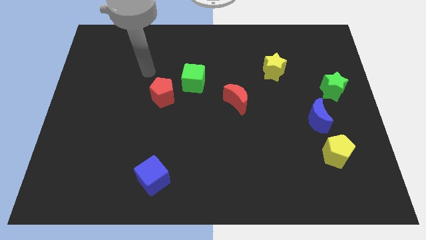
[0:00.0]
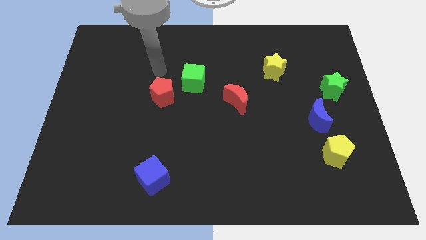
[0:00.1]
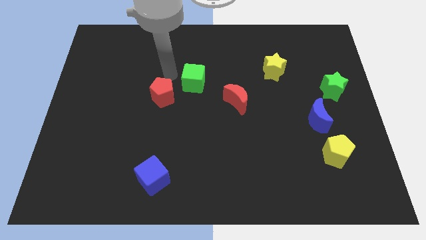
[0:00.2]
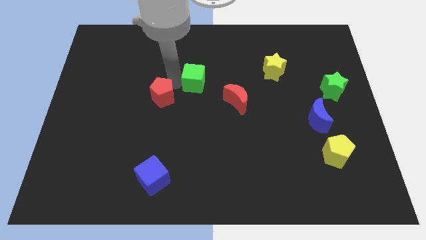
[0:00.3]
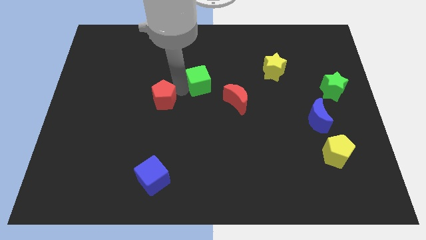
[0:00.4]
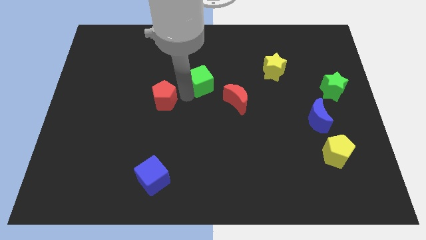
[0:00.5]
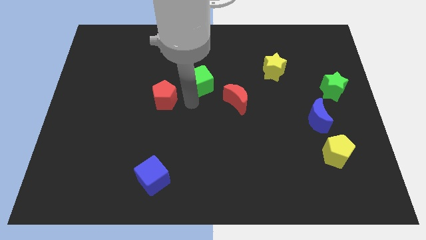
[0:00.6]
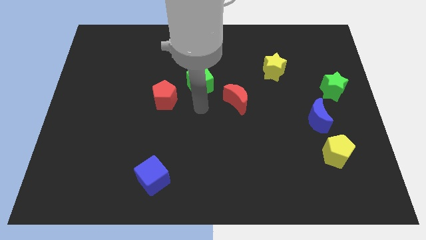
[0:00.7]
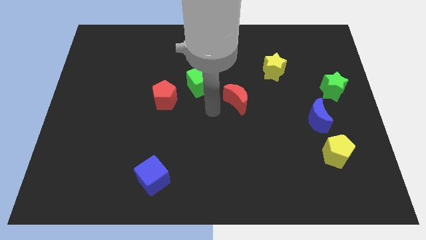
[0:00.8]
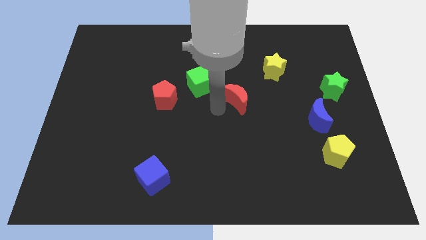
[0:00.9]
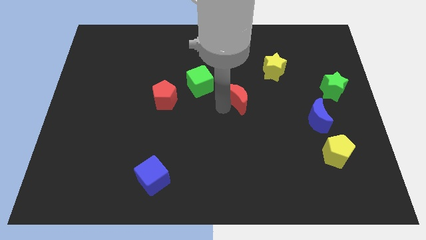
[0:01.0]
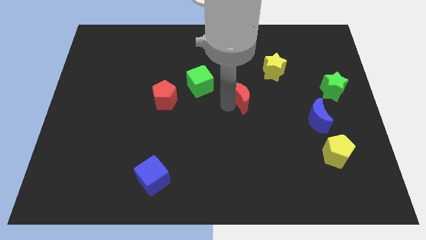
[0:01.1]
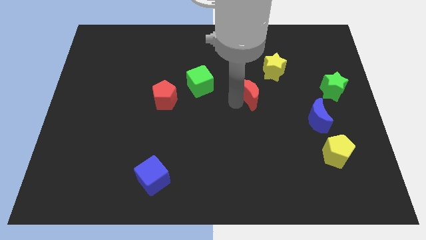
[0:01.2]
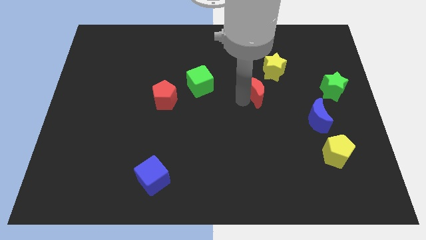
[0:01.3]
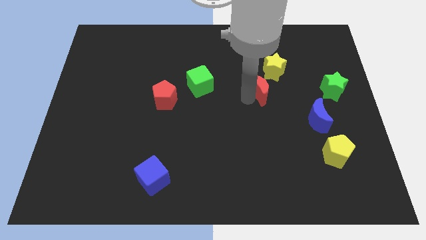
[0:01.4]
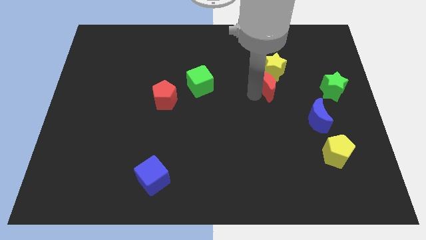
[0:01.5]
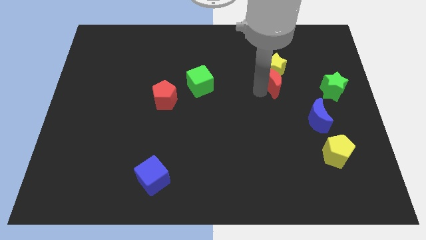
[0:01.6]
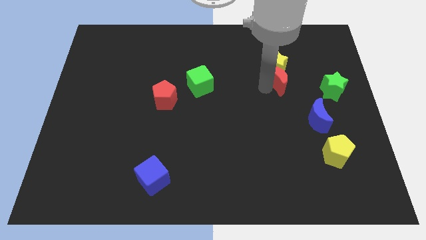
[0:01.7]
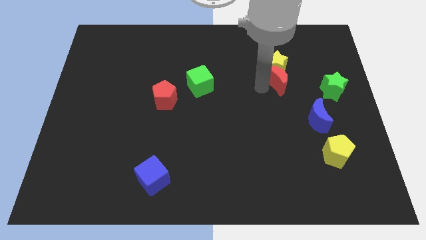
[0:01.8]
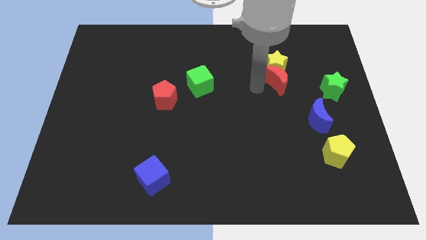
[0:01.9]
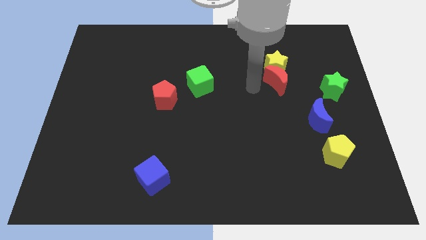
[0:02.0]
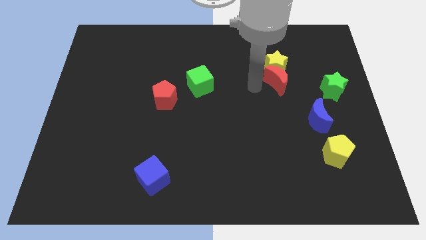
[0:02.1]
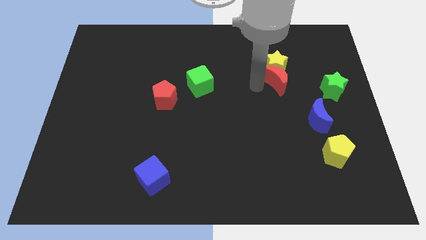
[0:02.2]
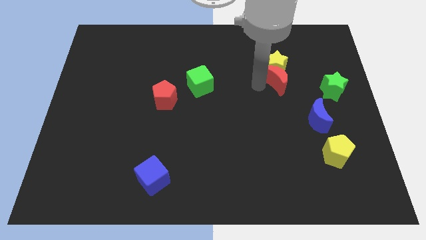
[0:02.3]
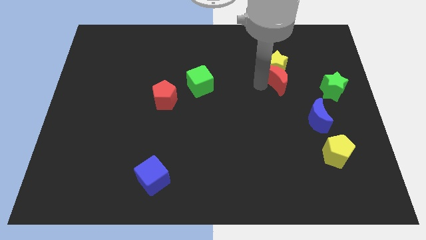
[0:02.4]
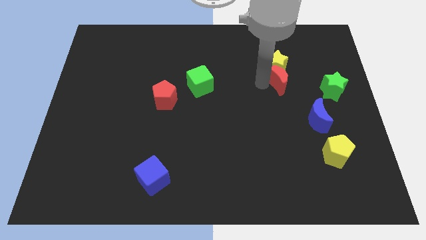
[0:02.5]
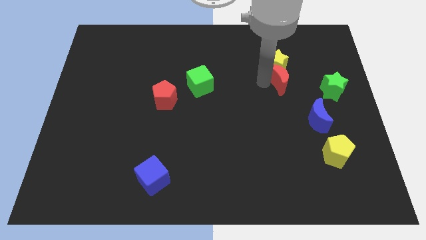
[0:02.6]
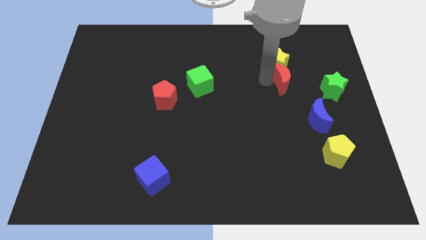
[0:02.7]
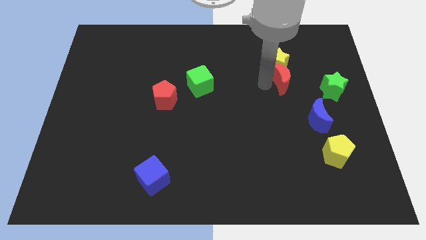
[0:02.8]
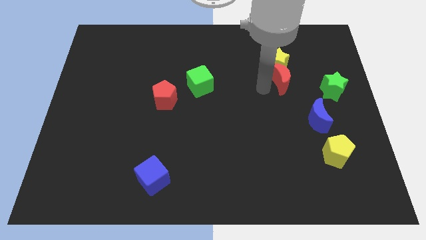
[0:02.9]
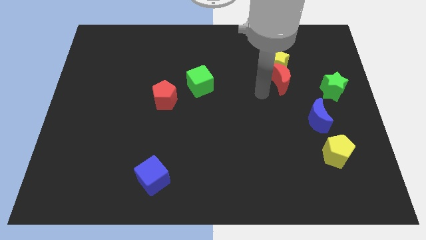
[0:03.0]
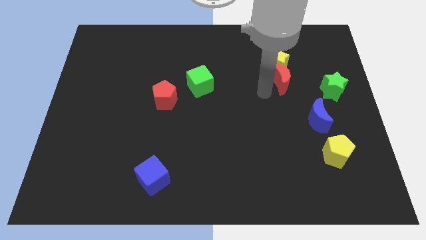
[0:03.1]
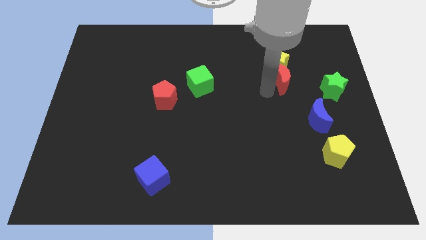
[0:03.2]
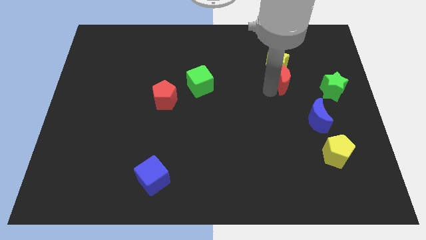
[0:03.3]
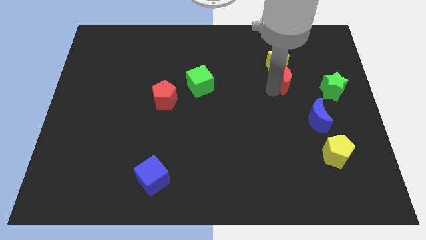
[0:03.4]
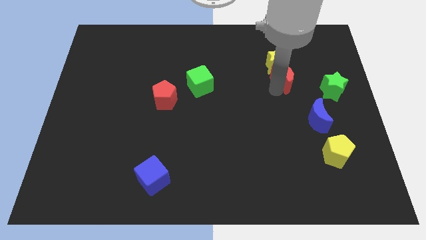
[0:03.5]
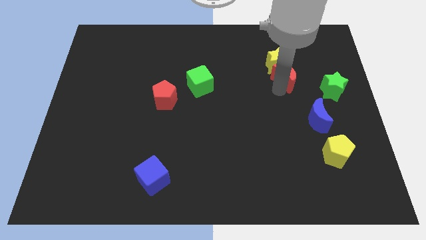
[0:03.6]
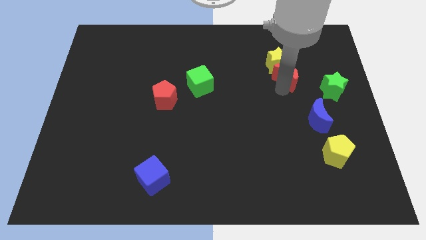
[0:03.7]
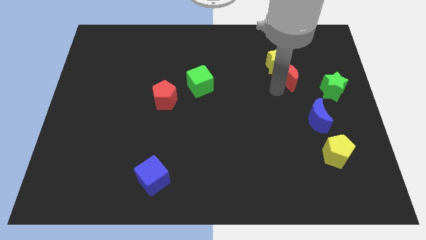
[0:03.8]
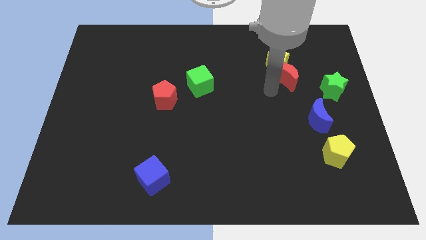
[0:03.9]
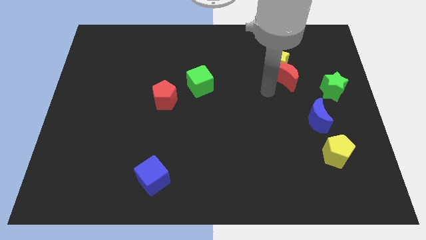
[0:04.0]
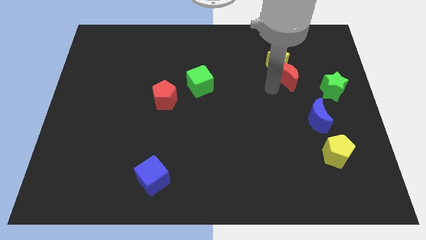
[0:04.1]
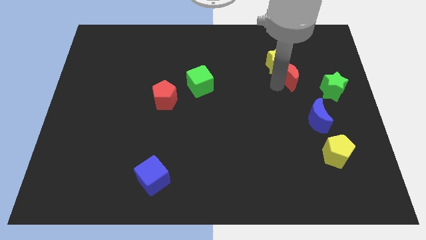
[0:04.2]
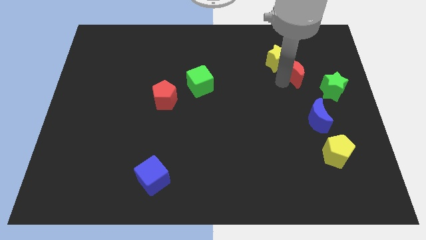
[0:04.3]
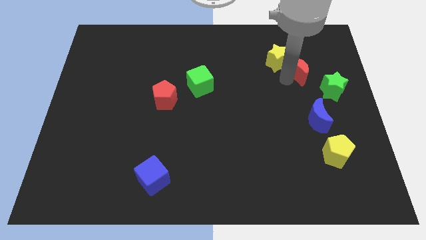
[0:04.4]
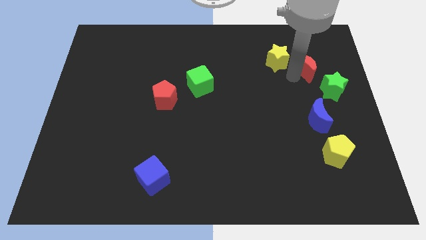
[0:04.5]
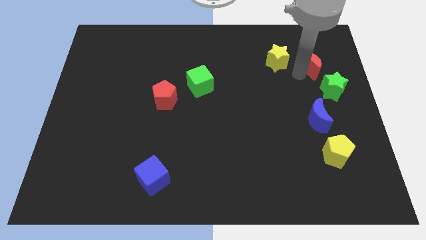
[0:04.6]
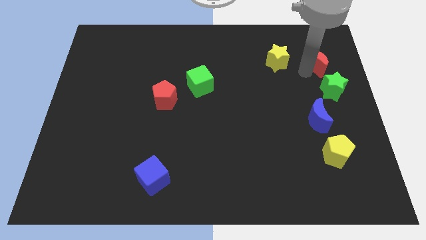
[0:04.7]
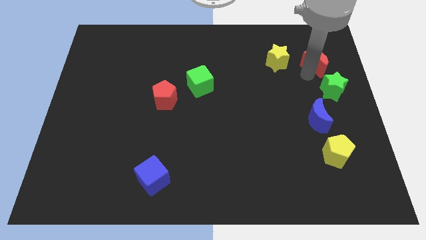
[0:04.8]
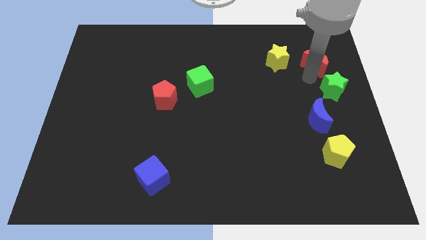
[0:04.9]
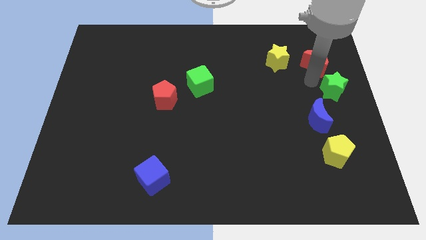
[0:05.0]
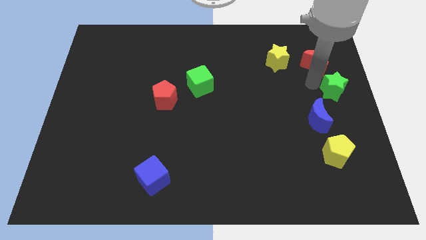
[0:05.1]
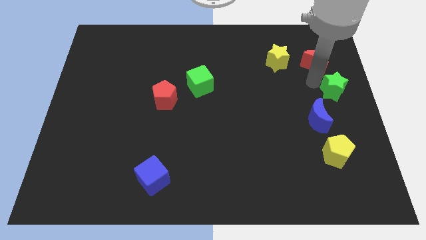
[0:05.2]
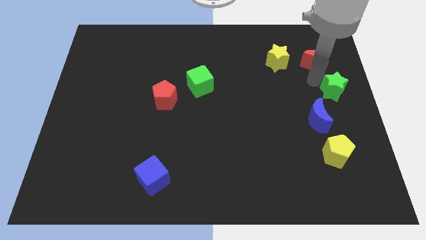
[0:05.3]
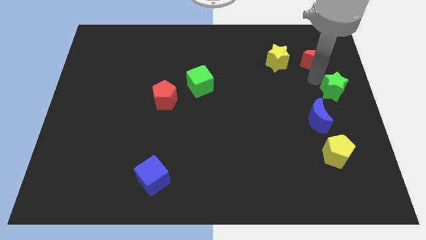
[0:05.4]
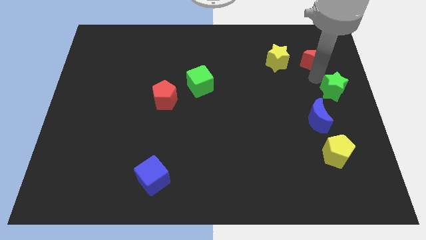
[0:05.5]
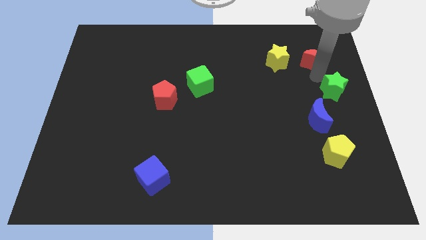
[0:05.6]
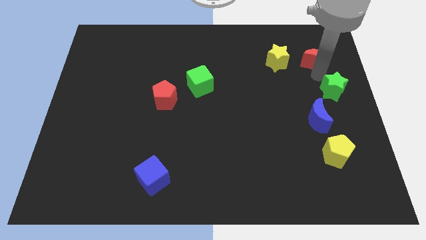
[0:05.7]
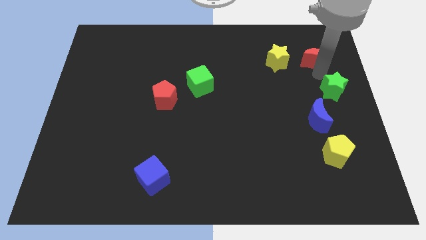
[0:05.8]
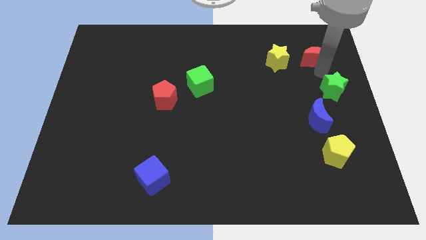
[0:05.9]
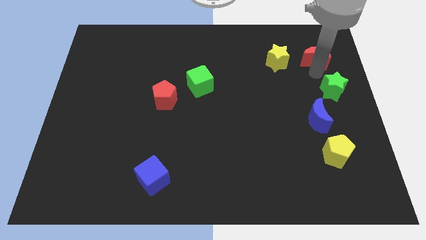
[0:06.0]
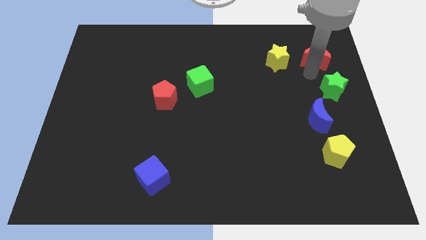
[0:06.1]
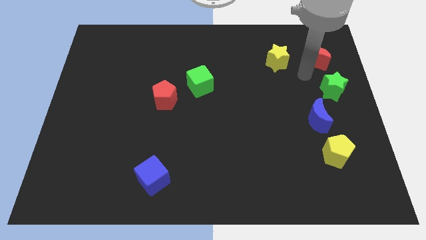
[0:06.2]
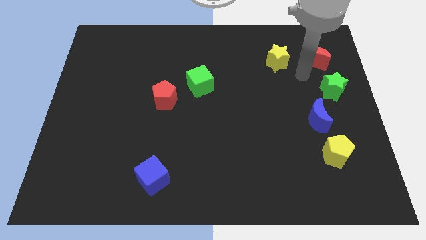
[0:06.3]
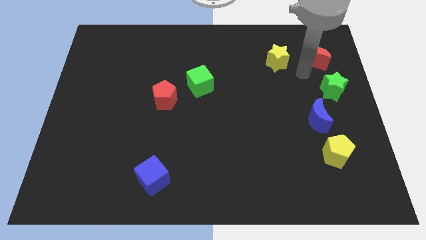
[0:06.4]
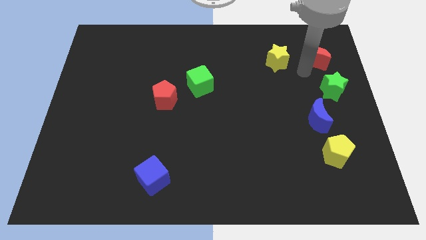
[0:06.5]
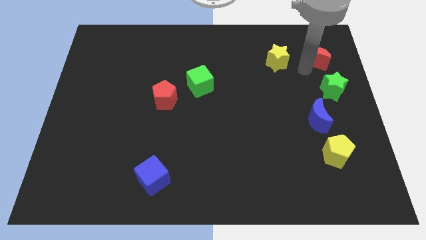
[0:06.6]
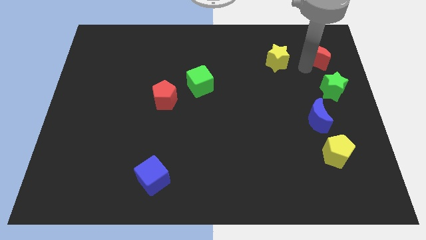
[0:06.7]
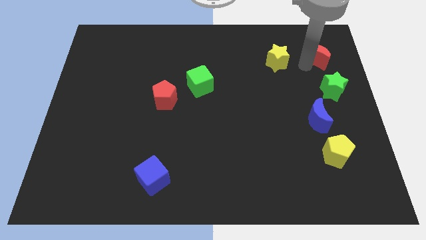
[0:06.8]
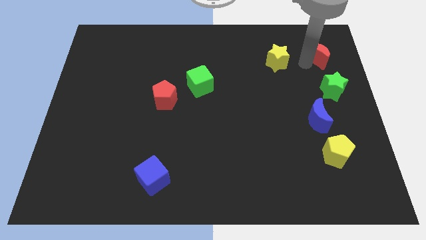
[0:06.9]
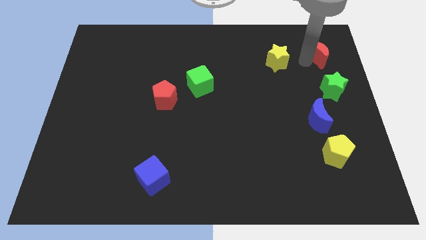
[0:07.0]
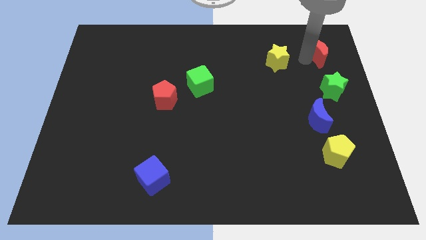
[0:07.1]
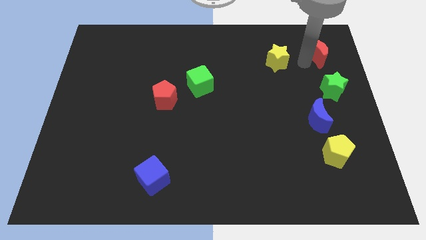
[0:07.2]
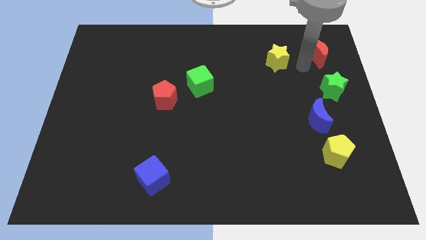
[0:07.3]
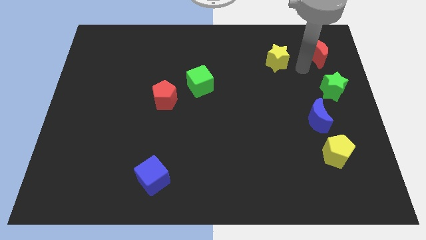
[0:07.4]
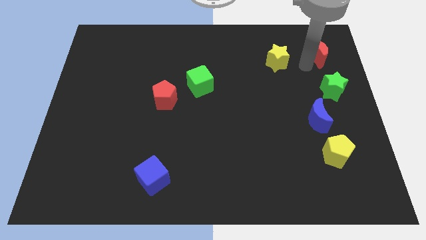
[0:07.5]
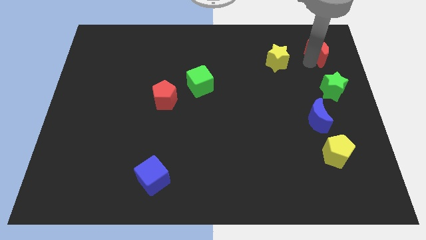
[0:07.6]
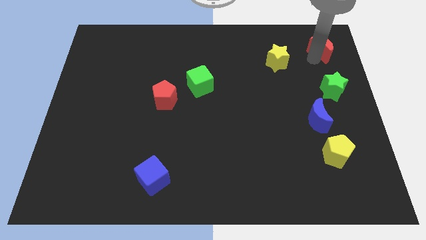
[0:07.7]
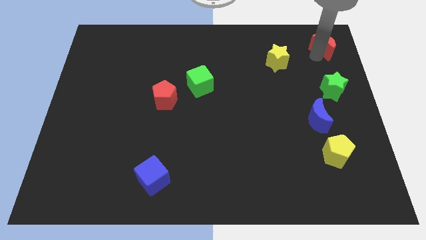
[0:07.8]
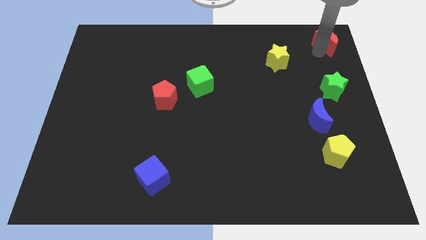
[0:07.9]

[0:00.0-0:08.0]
slide the red moon to the top right of the board
